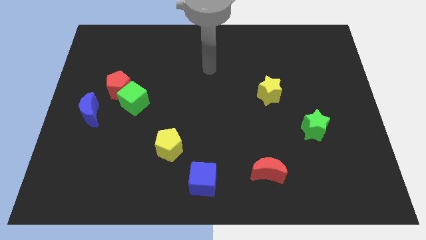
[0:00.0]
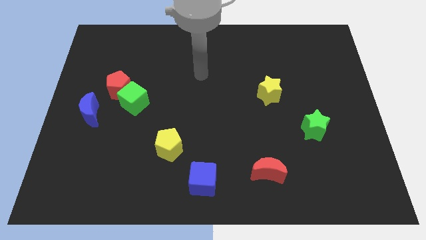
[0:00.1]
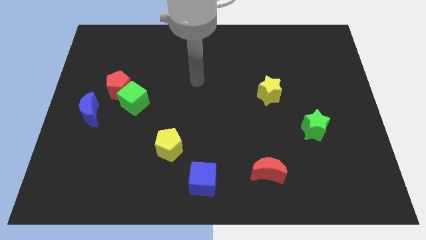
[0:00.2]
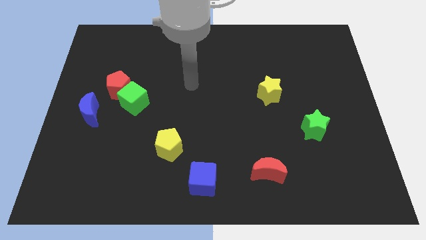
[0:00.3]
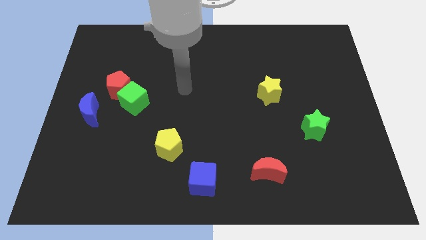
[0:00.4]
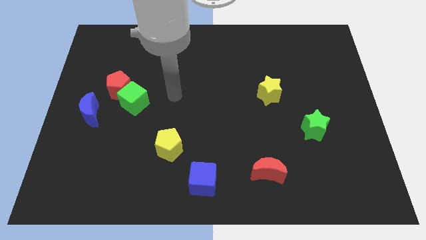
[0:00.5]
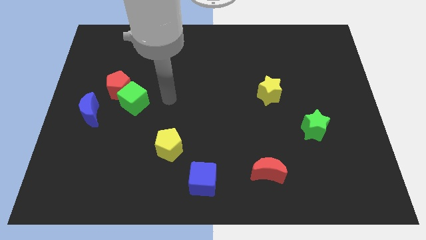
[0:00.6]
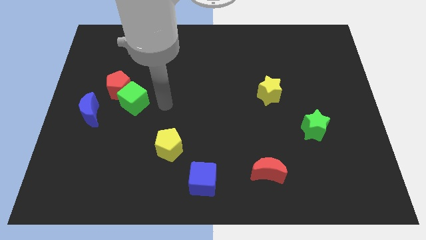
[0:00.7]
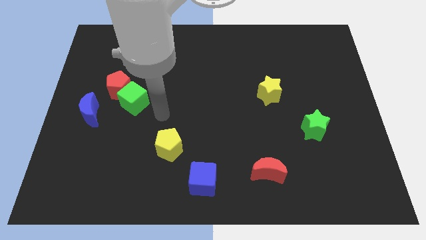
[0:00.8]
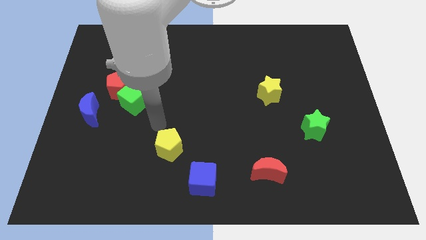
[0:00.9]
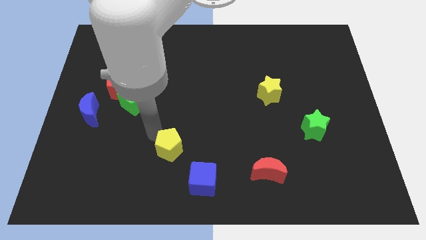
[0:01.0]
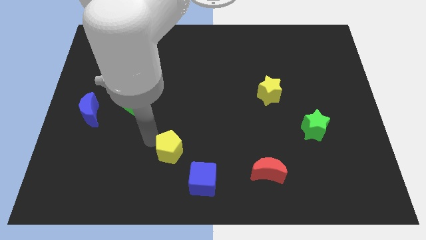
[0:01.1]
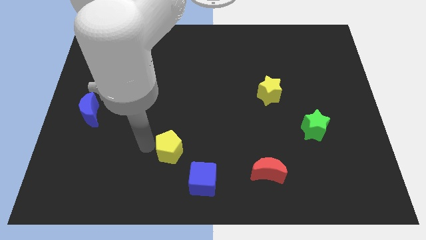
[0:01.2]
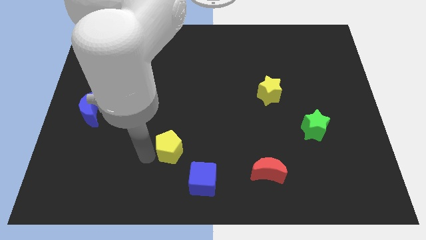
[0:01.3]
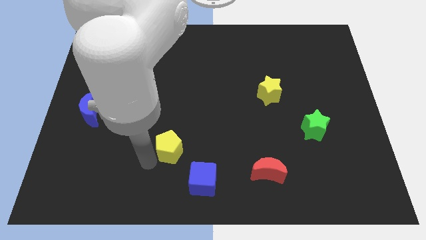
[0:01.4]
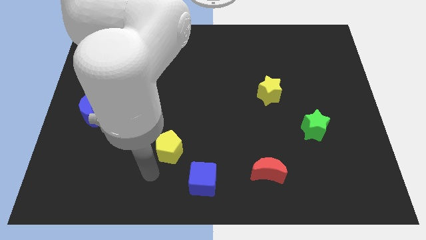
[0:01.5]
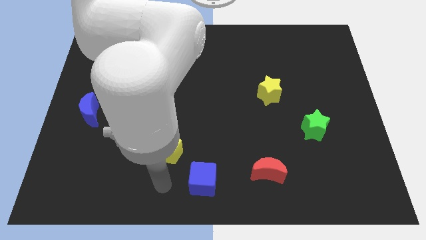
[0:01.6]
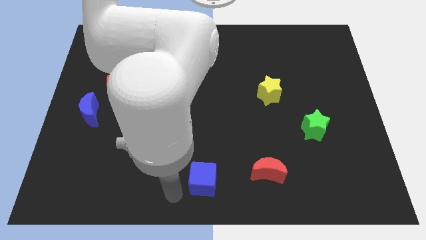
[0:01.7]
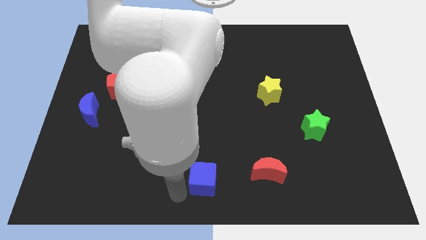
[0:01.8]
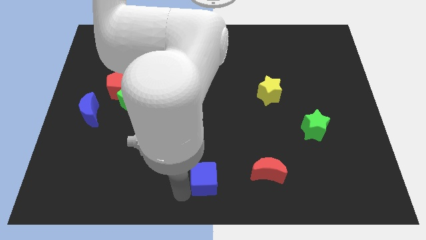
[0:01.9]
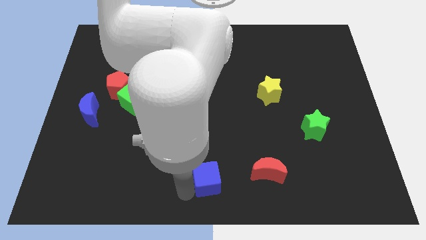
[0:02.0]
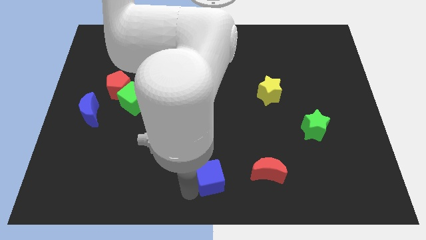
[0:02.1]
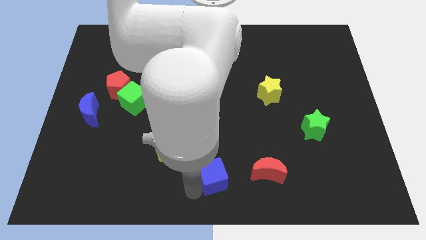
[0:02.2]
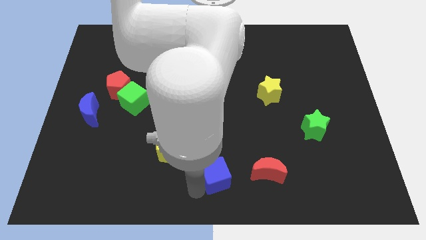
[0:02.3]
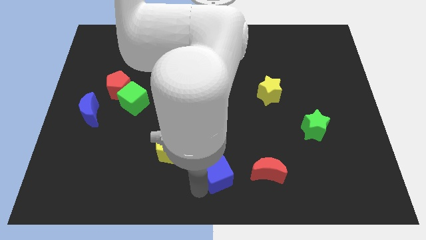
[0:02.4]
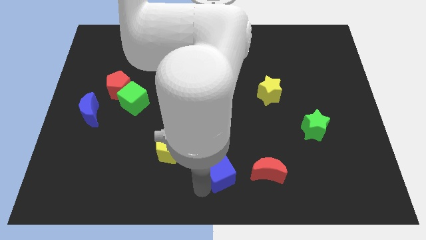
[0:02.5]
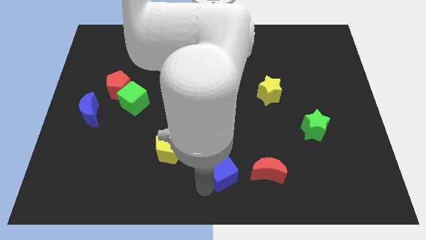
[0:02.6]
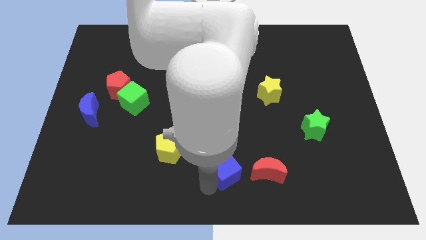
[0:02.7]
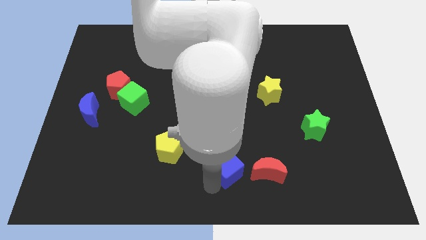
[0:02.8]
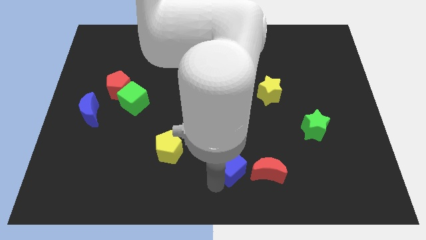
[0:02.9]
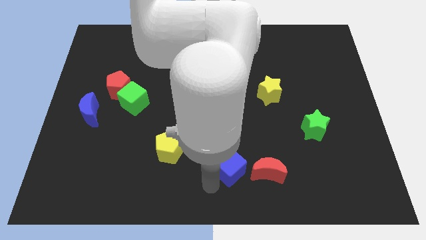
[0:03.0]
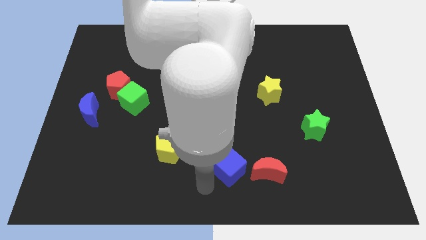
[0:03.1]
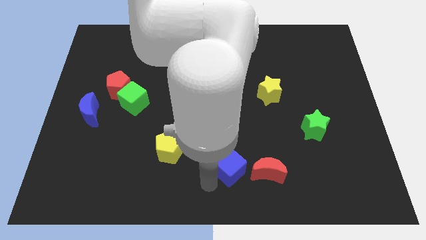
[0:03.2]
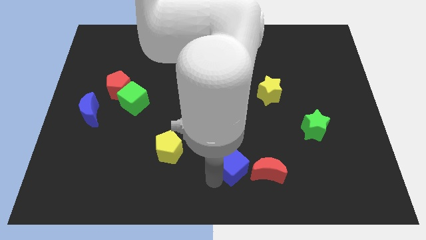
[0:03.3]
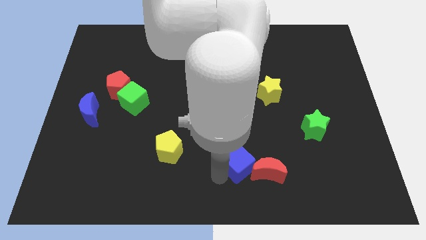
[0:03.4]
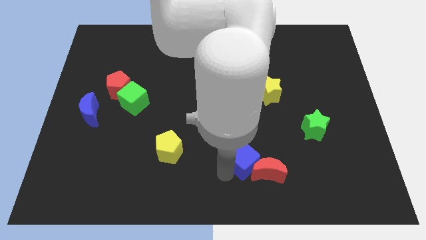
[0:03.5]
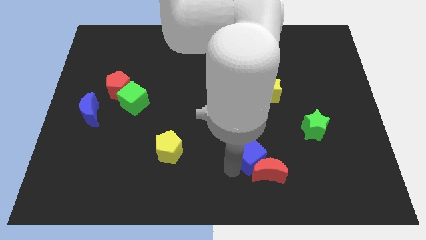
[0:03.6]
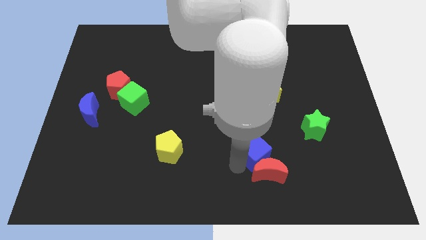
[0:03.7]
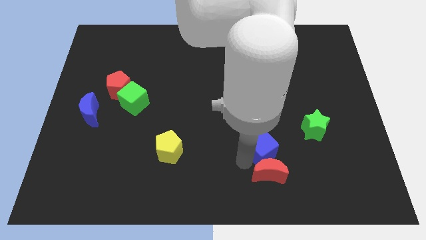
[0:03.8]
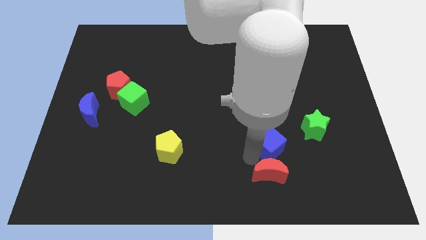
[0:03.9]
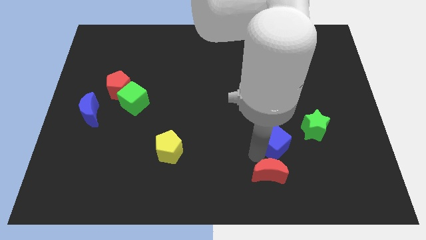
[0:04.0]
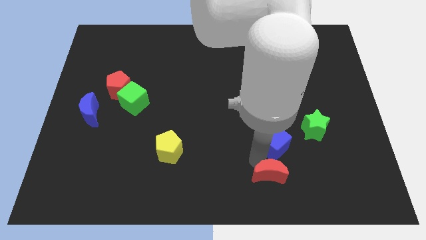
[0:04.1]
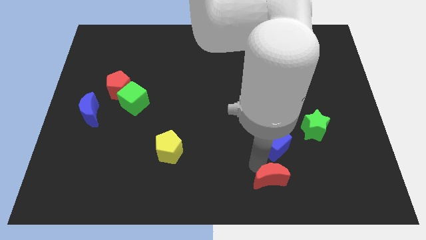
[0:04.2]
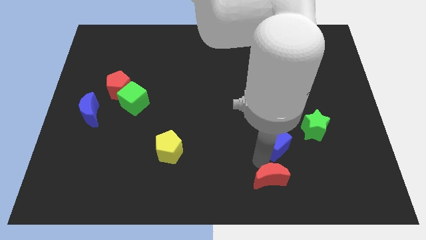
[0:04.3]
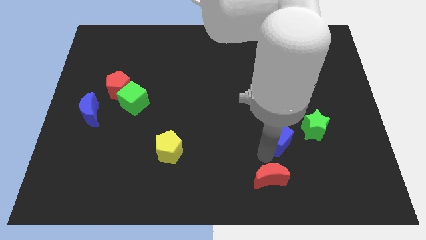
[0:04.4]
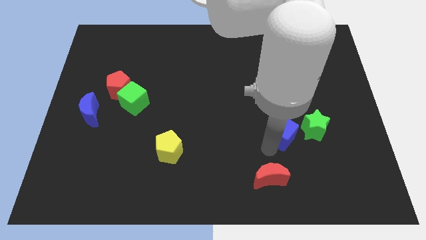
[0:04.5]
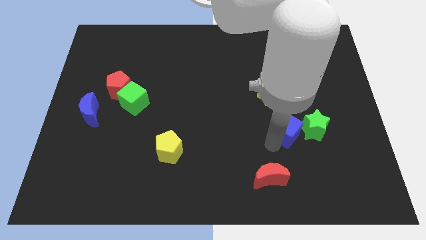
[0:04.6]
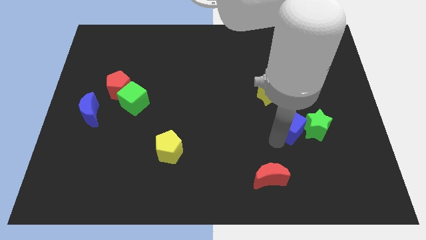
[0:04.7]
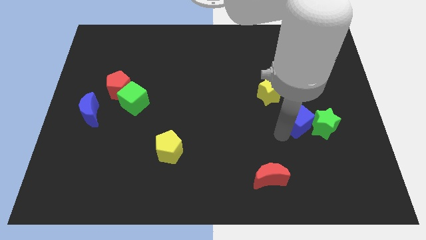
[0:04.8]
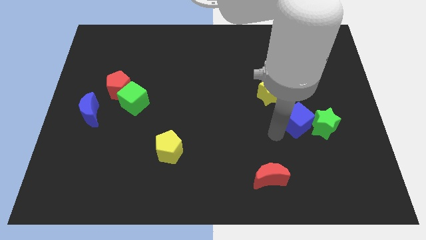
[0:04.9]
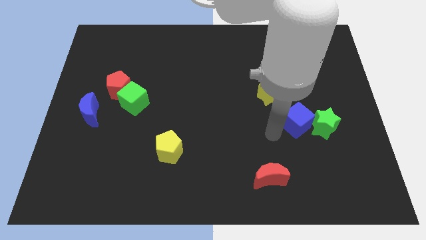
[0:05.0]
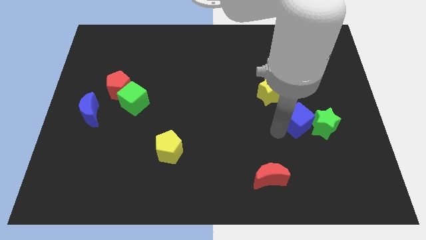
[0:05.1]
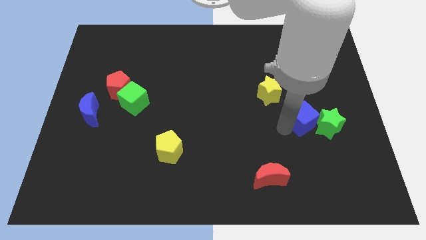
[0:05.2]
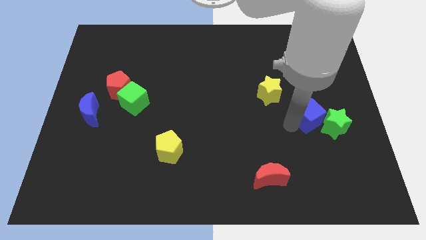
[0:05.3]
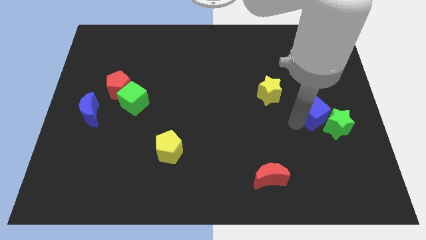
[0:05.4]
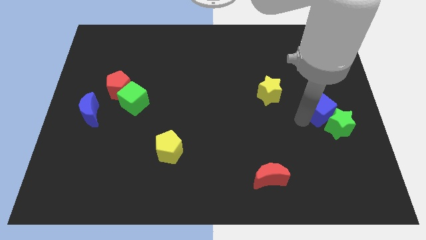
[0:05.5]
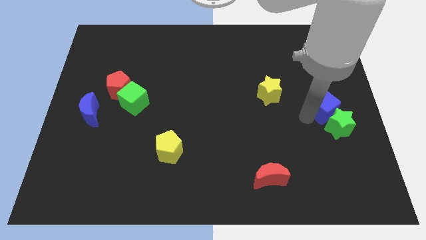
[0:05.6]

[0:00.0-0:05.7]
push the blue cube to the center right

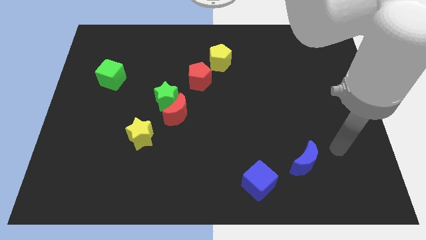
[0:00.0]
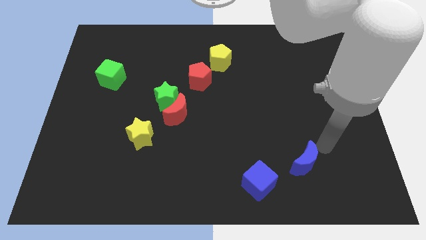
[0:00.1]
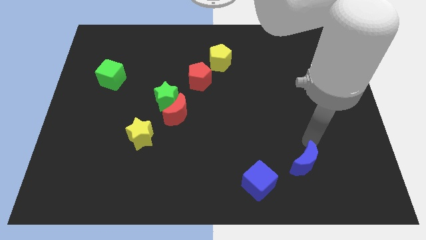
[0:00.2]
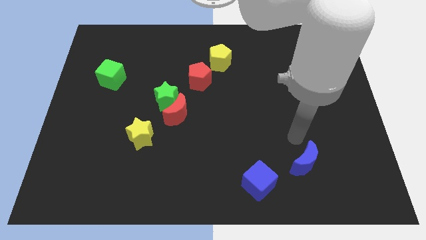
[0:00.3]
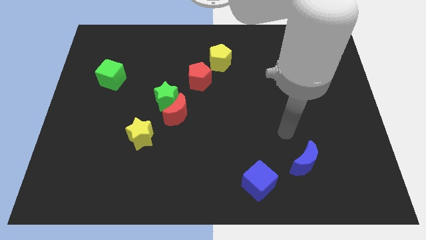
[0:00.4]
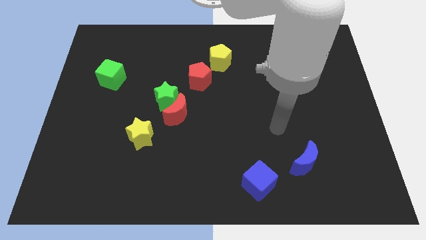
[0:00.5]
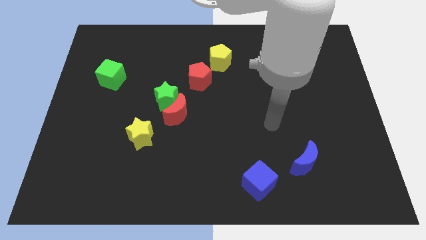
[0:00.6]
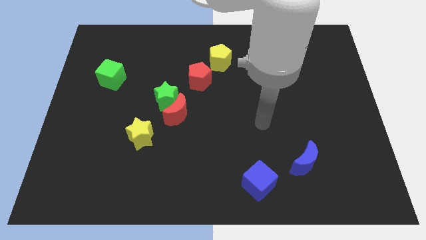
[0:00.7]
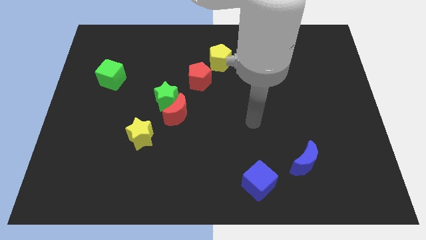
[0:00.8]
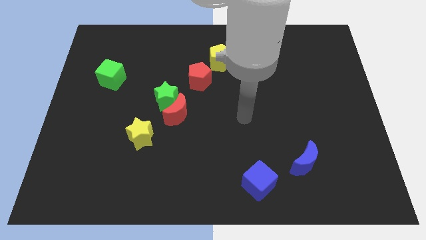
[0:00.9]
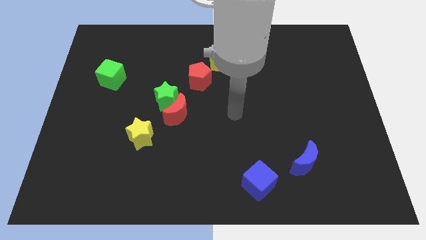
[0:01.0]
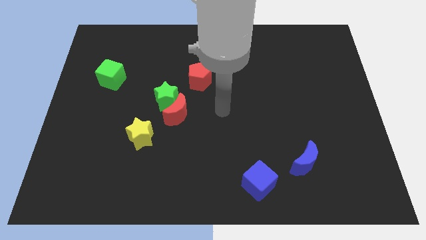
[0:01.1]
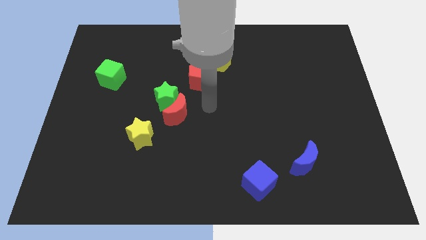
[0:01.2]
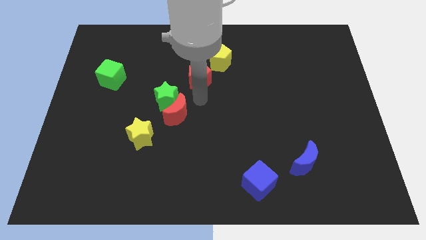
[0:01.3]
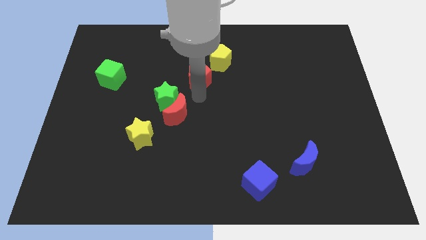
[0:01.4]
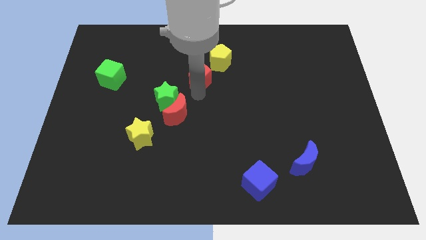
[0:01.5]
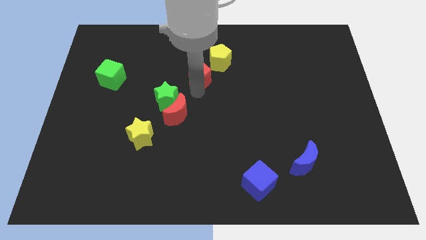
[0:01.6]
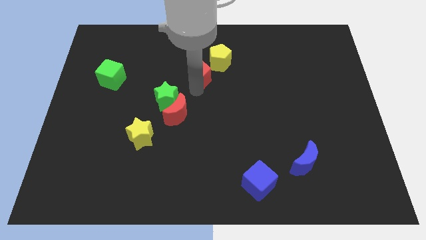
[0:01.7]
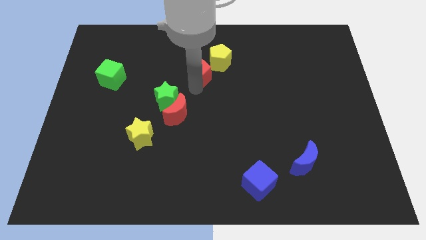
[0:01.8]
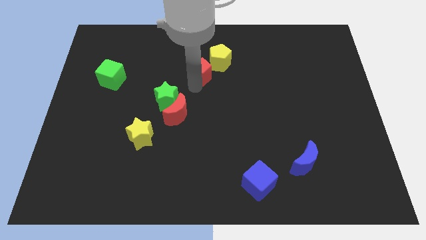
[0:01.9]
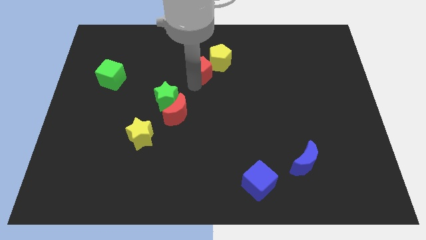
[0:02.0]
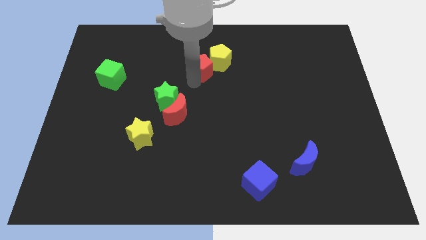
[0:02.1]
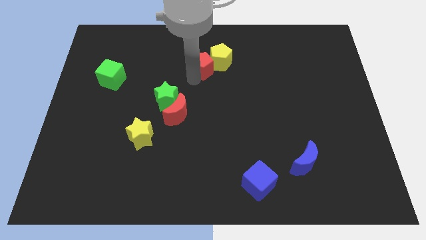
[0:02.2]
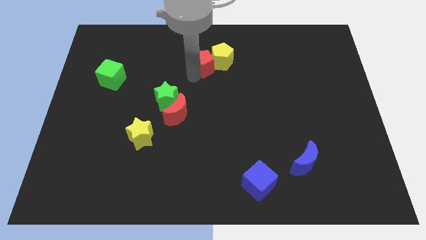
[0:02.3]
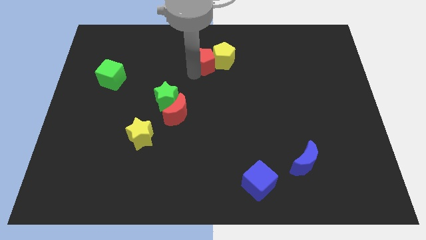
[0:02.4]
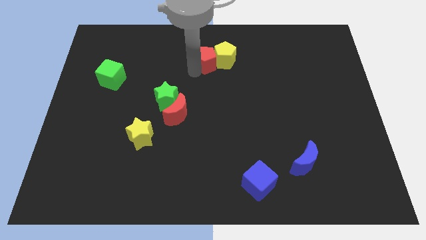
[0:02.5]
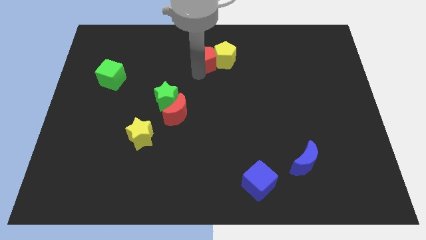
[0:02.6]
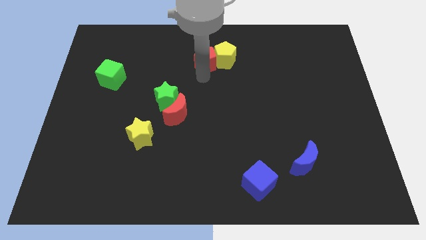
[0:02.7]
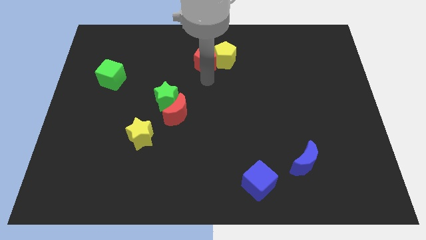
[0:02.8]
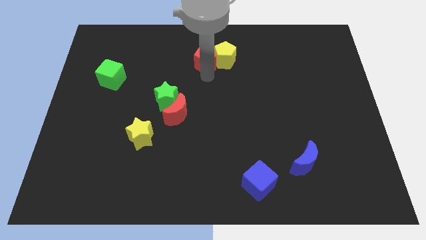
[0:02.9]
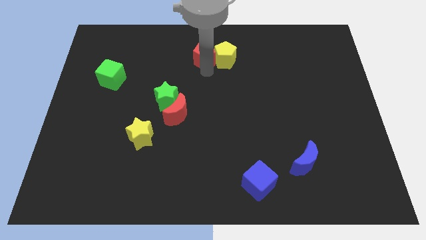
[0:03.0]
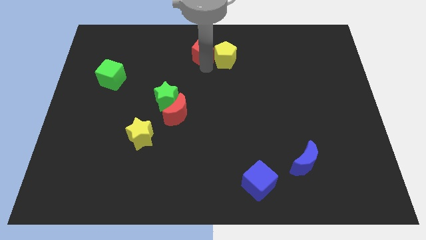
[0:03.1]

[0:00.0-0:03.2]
slide the red pentagon to the top side
